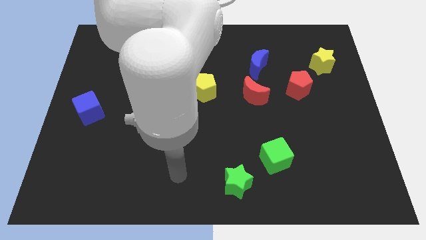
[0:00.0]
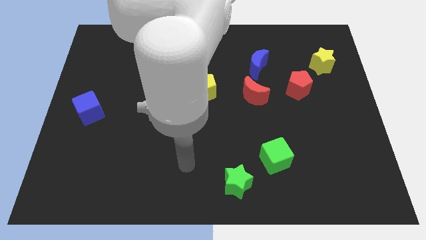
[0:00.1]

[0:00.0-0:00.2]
pull the red moon apart from the blue moon

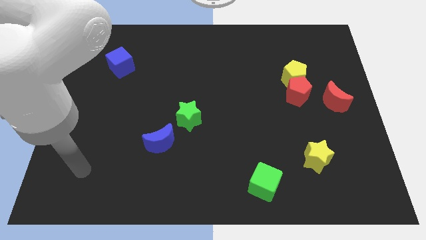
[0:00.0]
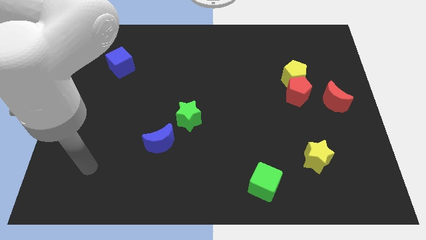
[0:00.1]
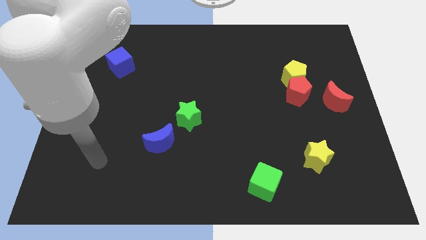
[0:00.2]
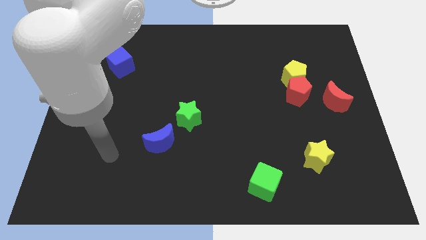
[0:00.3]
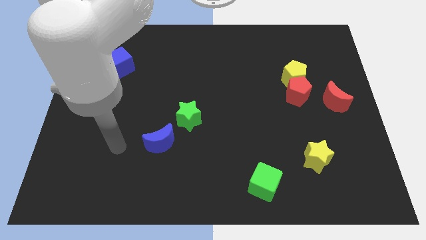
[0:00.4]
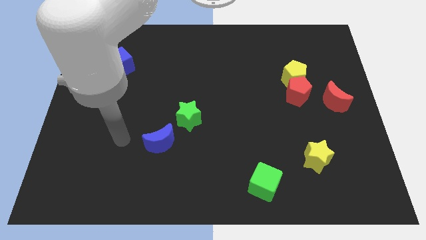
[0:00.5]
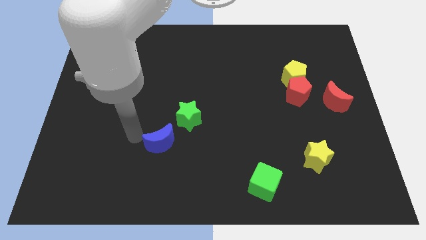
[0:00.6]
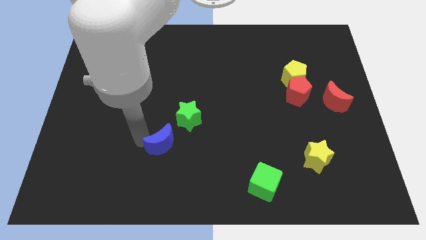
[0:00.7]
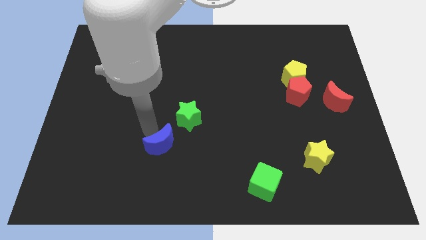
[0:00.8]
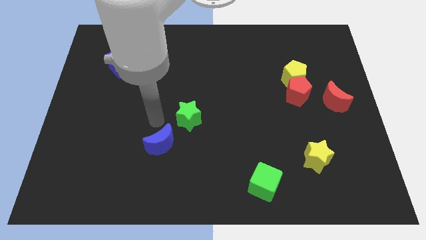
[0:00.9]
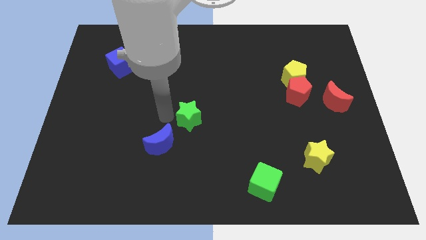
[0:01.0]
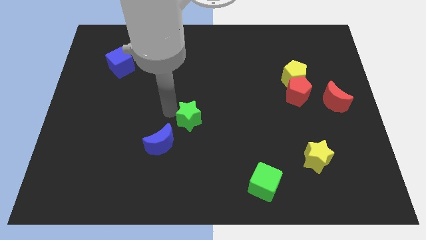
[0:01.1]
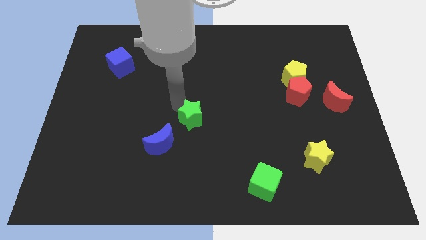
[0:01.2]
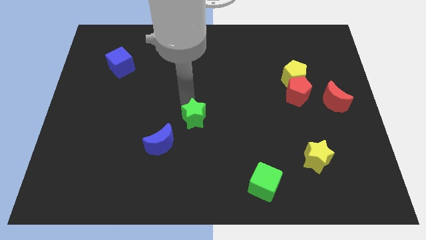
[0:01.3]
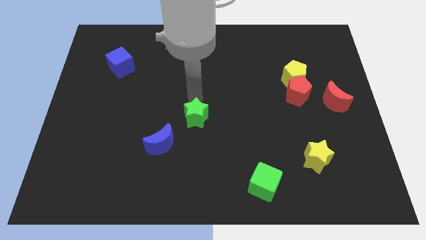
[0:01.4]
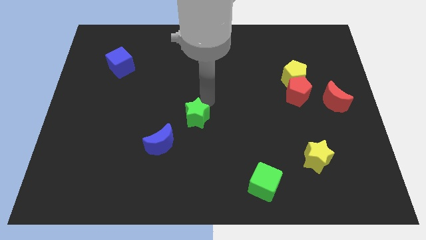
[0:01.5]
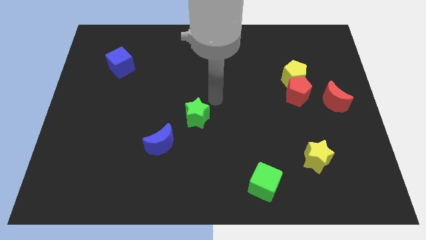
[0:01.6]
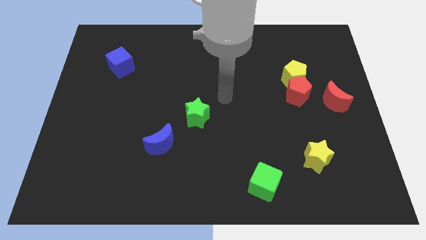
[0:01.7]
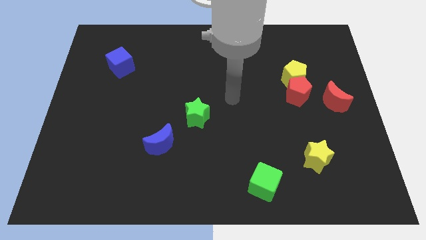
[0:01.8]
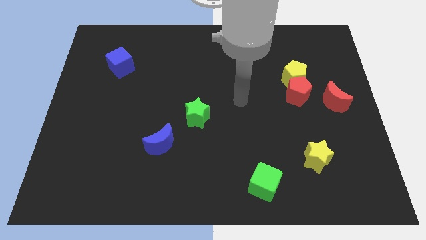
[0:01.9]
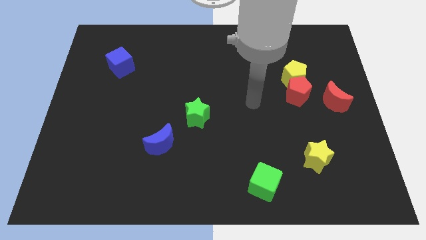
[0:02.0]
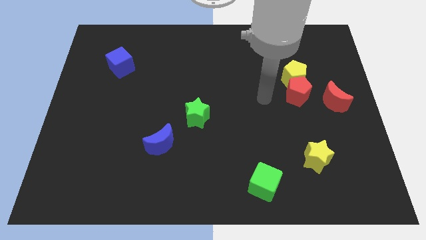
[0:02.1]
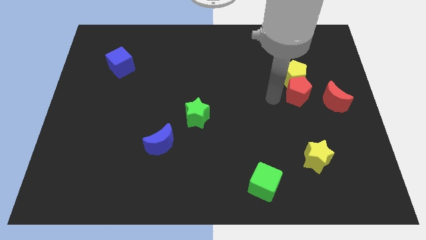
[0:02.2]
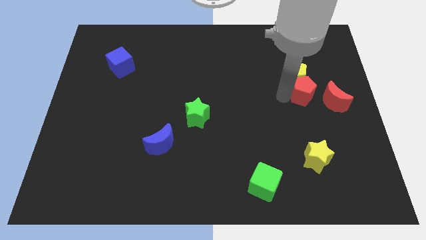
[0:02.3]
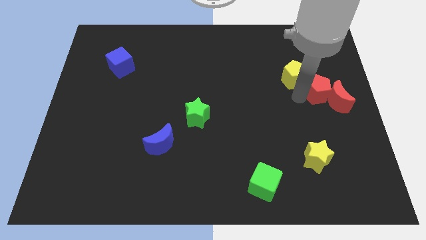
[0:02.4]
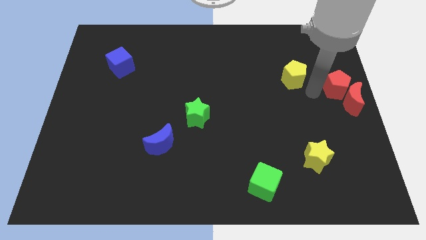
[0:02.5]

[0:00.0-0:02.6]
separate the yellow pentagon from the red pentagon

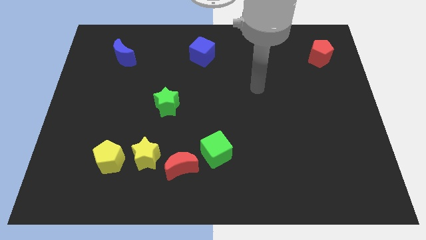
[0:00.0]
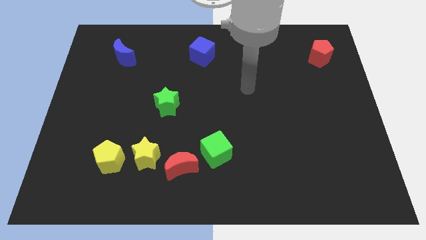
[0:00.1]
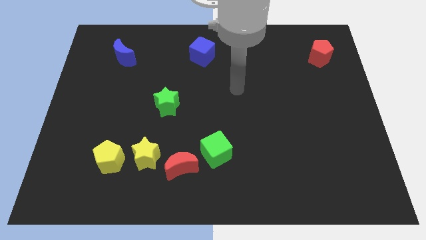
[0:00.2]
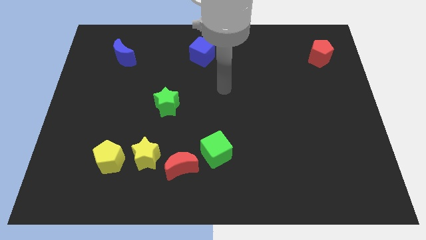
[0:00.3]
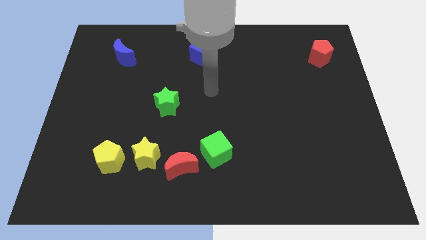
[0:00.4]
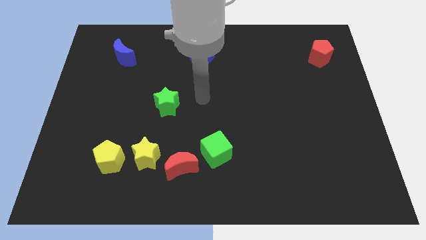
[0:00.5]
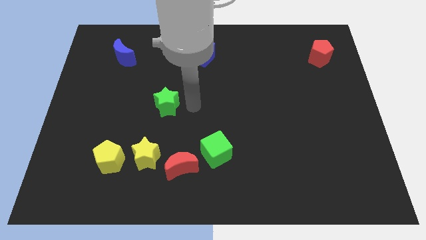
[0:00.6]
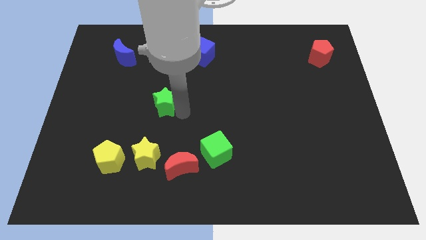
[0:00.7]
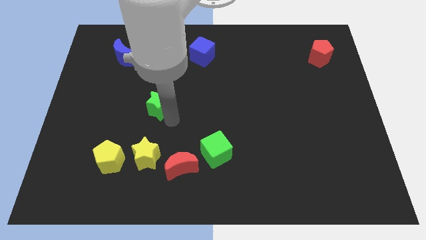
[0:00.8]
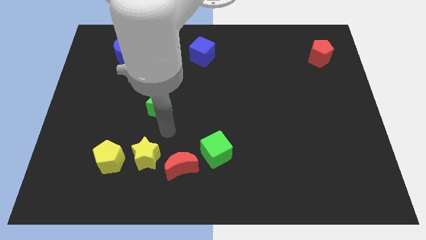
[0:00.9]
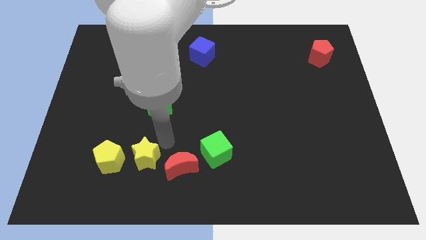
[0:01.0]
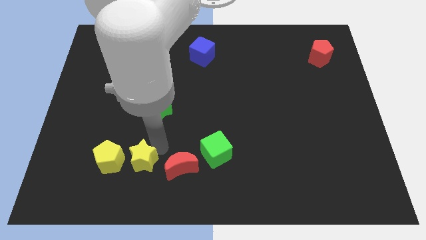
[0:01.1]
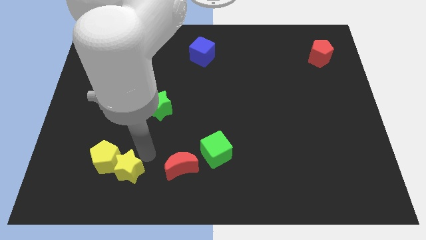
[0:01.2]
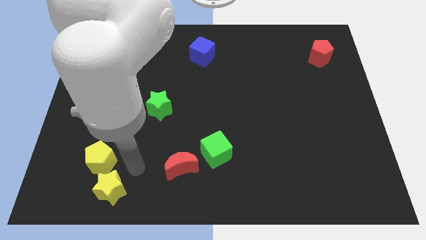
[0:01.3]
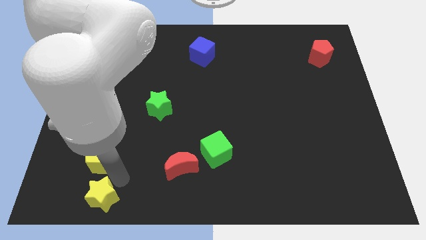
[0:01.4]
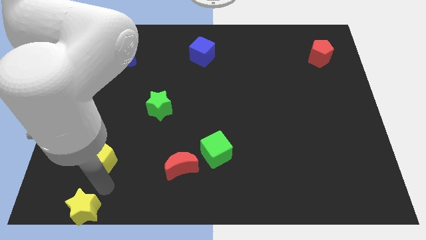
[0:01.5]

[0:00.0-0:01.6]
pull the yellow pentagon apart from the yellow star

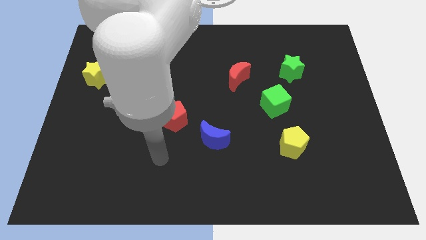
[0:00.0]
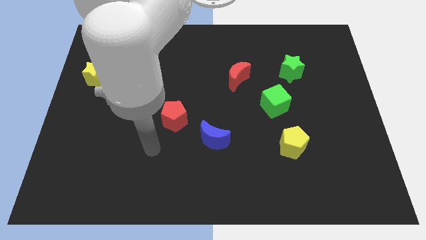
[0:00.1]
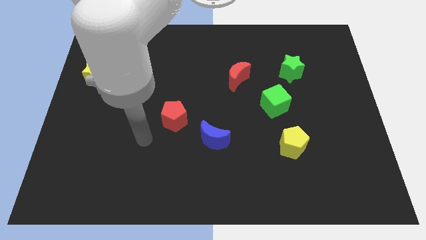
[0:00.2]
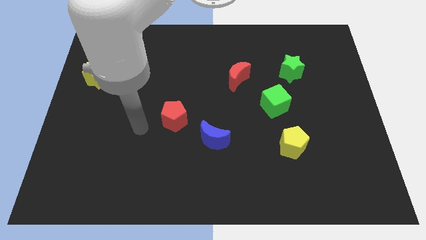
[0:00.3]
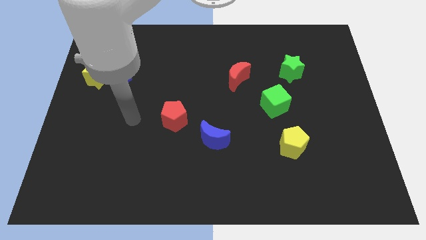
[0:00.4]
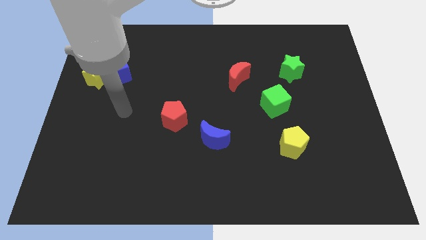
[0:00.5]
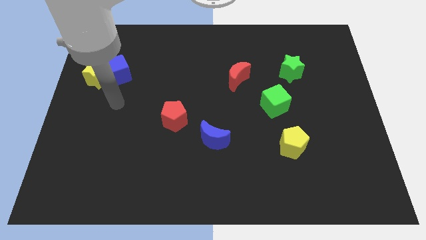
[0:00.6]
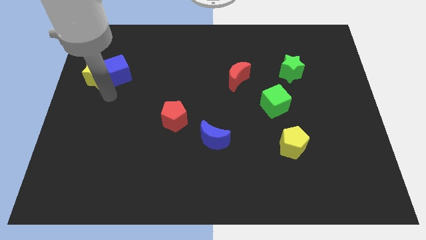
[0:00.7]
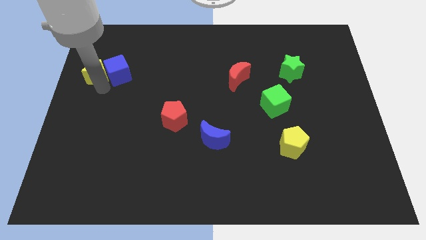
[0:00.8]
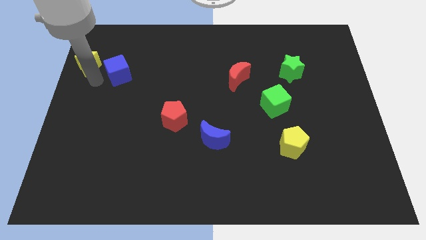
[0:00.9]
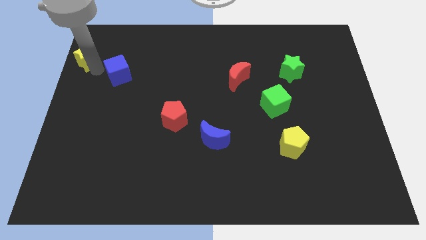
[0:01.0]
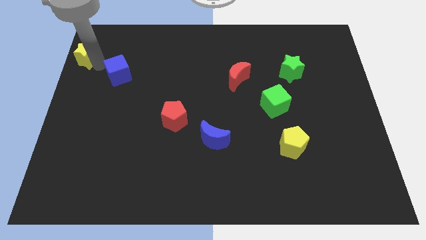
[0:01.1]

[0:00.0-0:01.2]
pull the blue cube apart from the yellow star

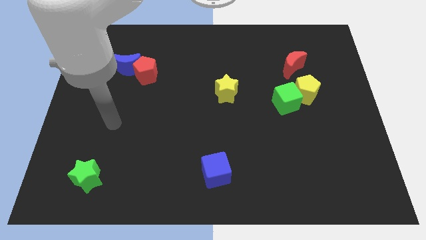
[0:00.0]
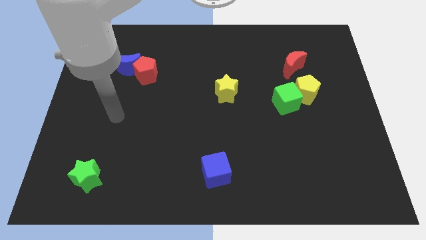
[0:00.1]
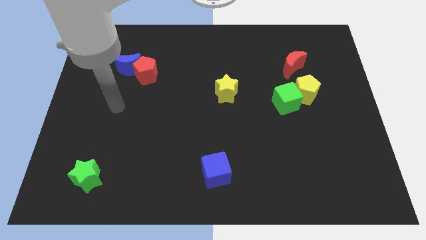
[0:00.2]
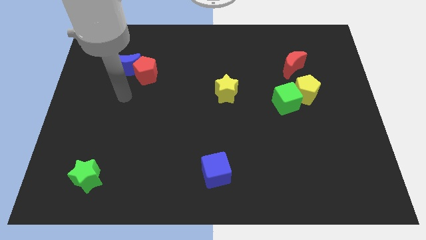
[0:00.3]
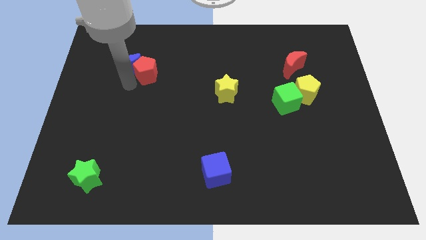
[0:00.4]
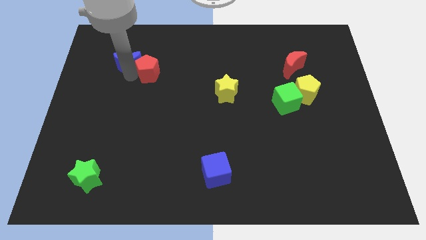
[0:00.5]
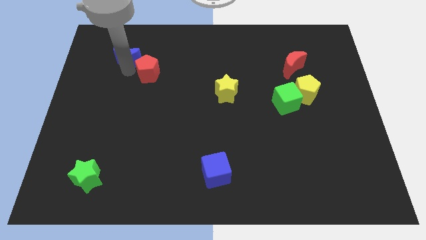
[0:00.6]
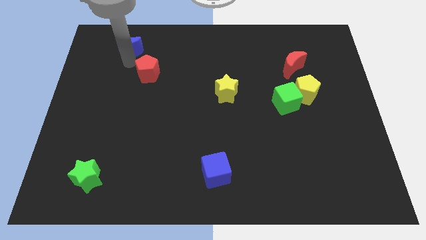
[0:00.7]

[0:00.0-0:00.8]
pull the red pentagon apart from the blue moon

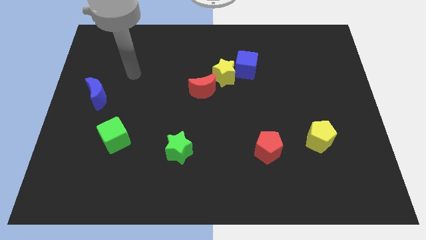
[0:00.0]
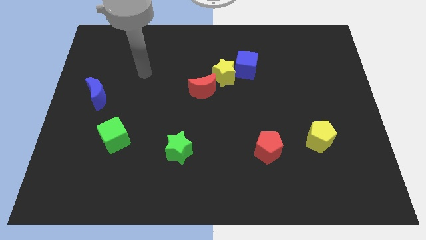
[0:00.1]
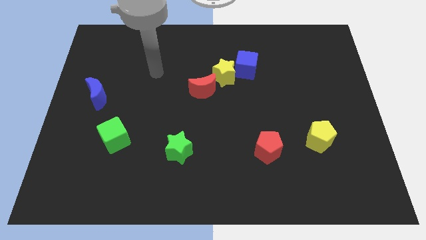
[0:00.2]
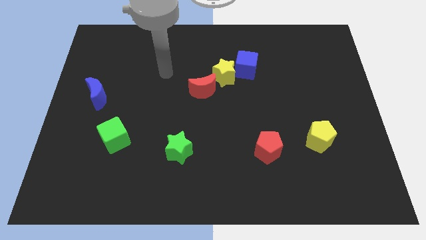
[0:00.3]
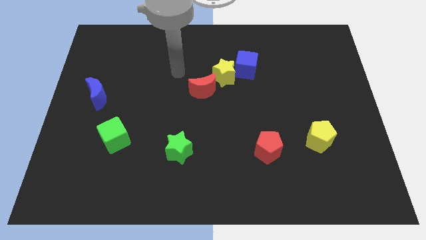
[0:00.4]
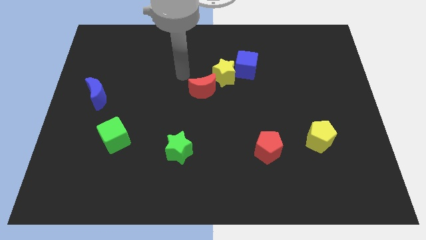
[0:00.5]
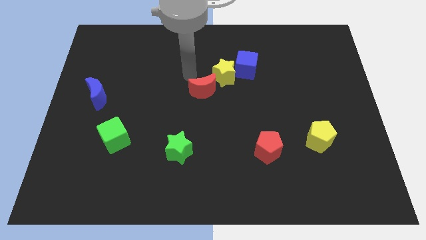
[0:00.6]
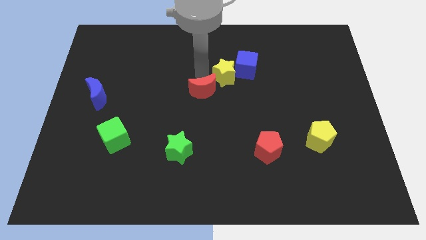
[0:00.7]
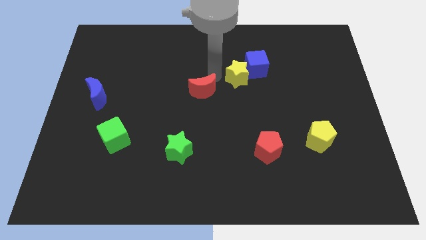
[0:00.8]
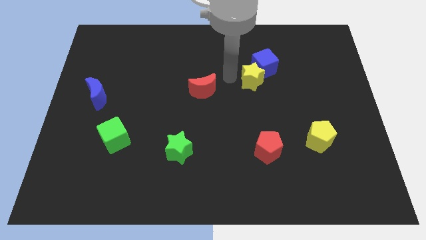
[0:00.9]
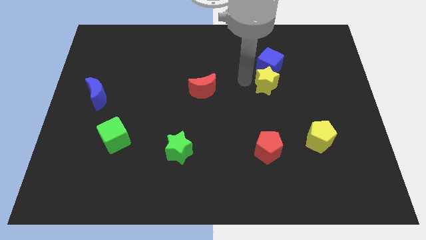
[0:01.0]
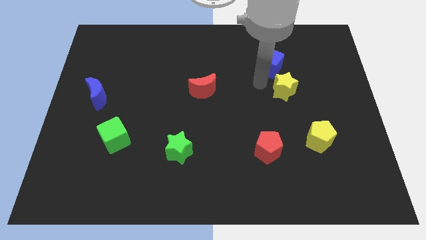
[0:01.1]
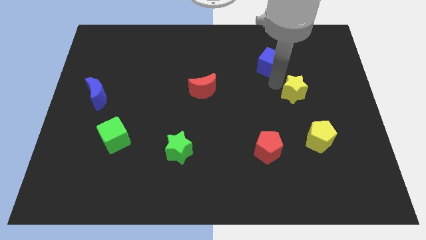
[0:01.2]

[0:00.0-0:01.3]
move the blue cube away from the yellow star

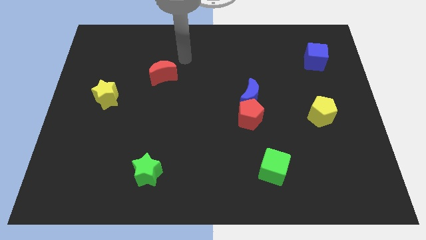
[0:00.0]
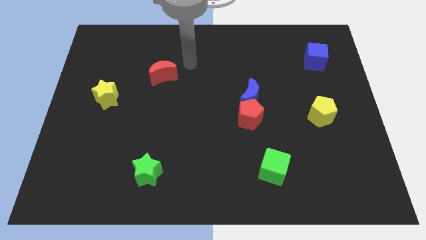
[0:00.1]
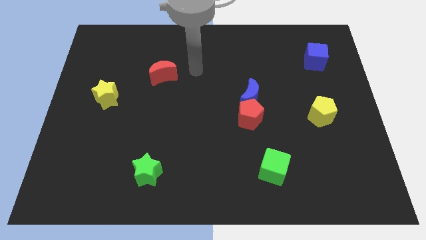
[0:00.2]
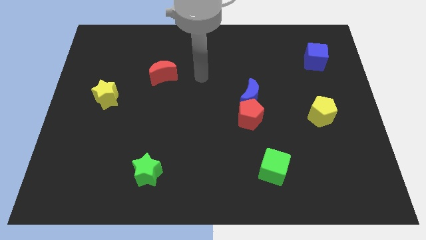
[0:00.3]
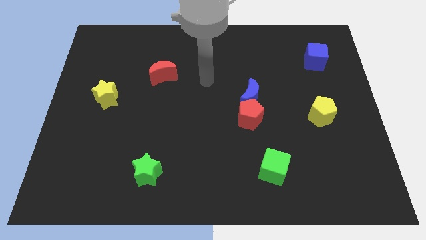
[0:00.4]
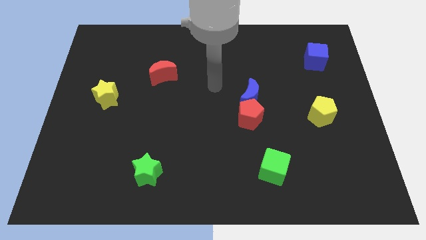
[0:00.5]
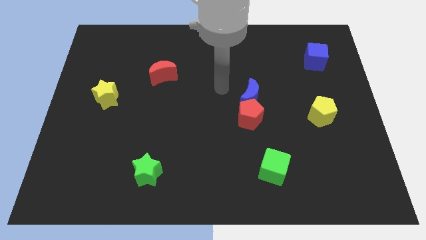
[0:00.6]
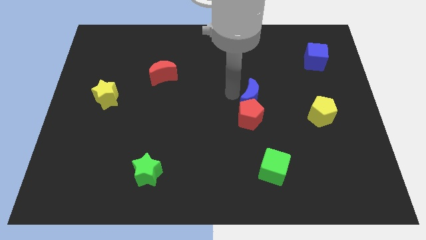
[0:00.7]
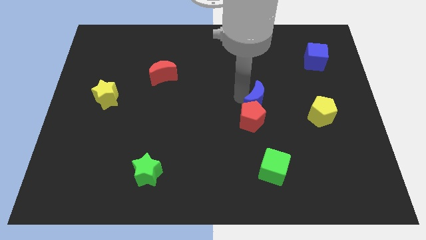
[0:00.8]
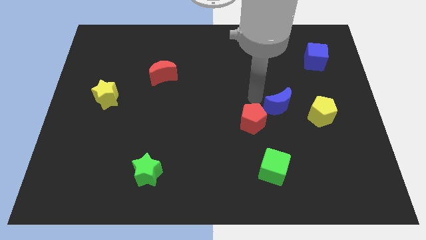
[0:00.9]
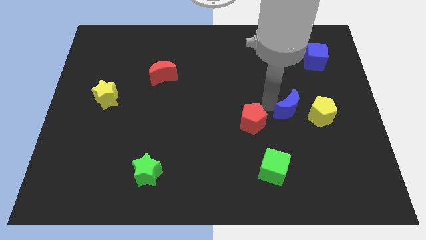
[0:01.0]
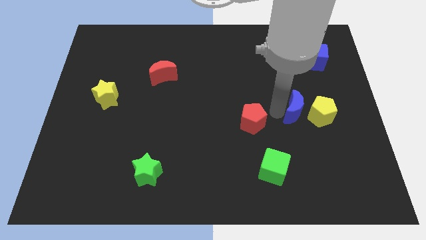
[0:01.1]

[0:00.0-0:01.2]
separate the red pentagon from the blue moon

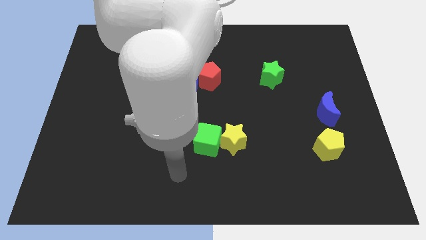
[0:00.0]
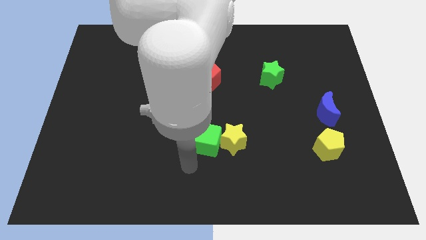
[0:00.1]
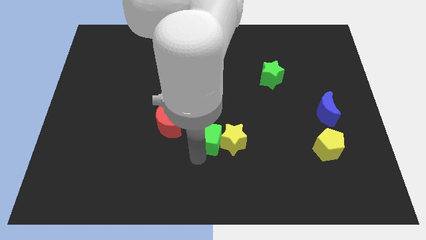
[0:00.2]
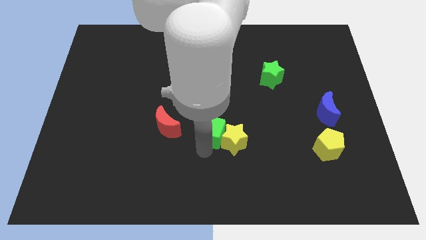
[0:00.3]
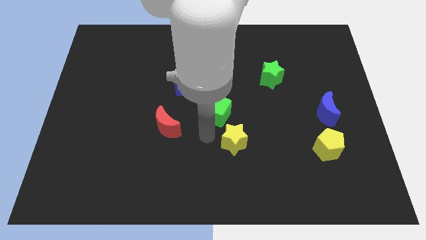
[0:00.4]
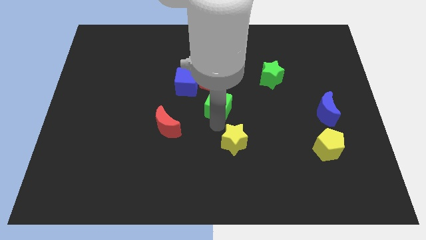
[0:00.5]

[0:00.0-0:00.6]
move the yellow star away from the green cube

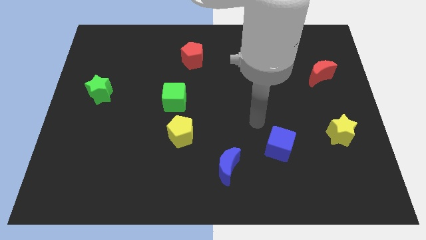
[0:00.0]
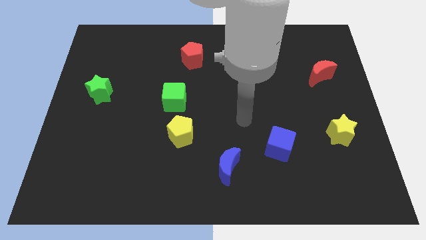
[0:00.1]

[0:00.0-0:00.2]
move the green cube away from the yellow pentagon
